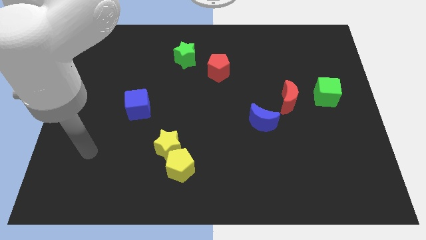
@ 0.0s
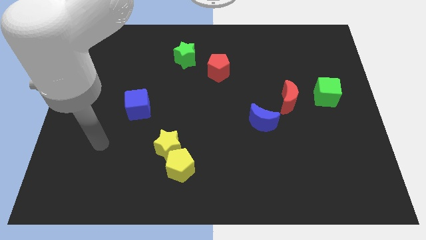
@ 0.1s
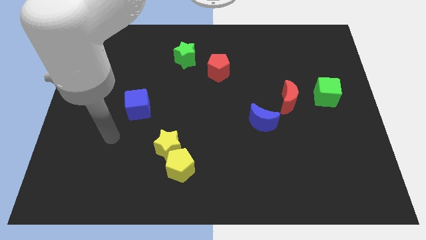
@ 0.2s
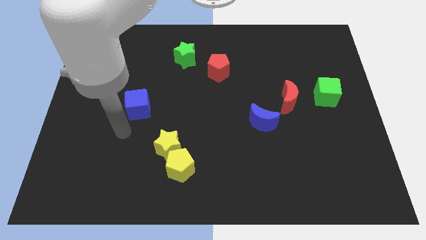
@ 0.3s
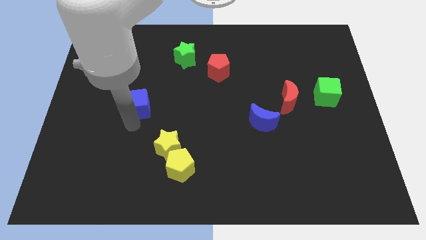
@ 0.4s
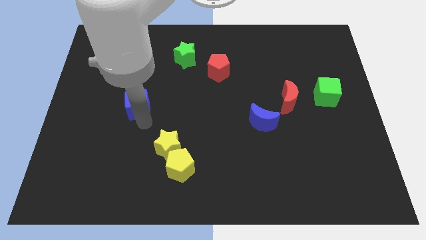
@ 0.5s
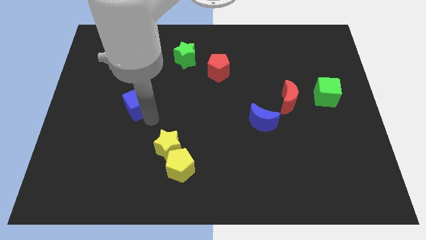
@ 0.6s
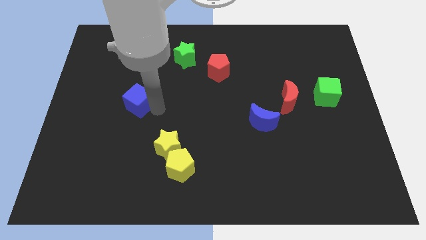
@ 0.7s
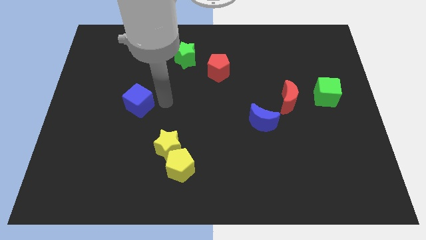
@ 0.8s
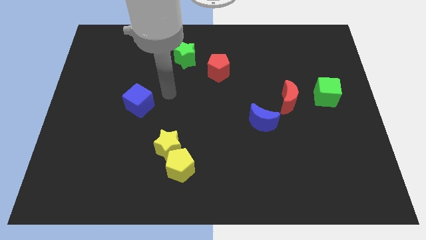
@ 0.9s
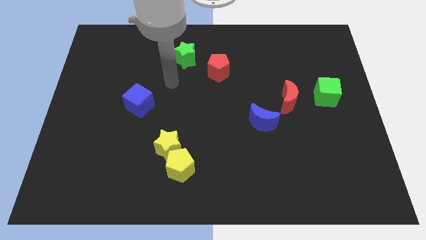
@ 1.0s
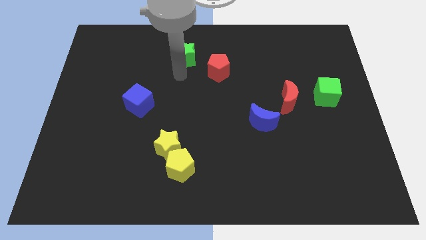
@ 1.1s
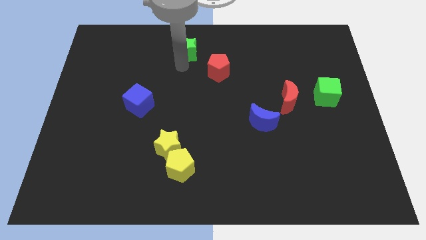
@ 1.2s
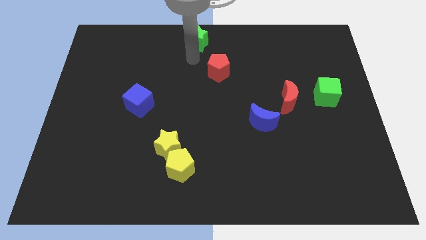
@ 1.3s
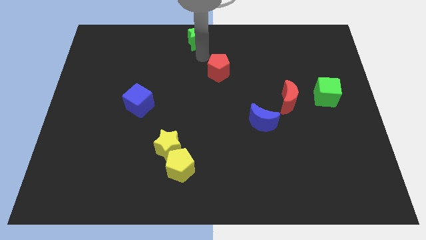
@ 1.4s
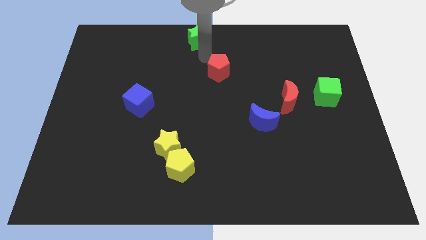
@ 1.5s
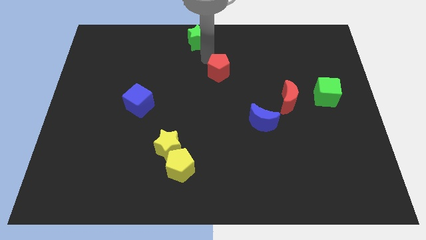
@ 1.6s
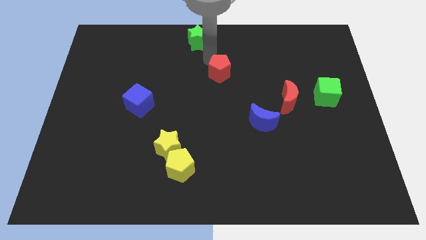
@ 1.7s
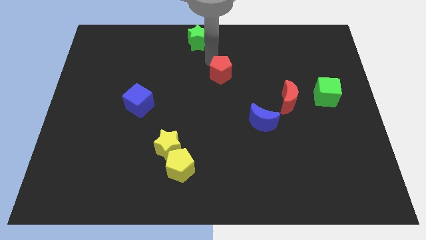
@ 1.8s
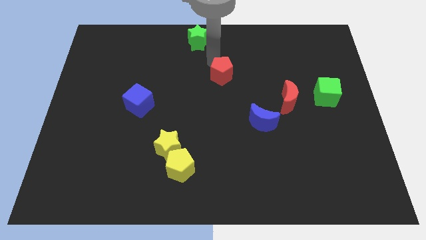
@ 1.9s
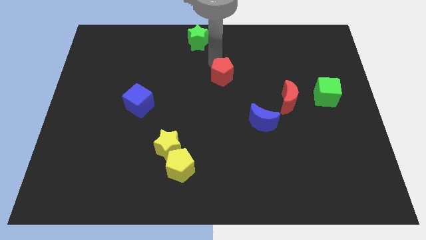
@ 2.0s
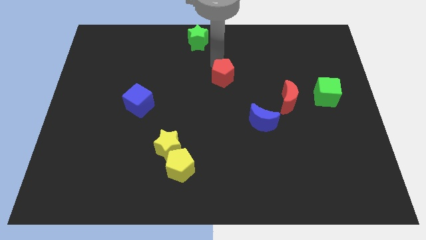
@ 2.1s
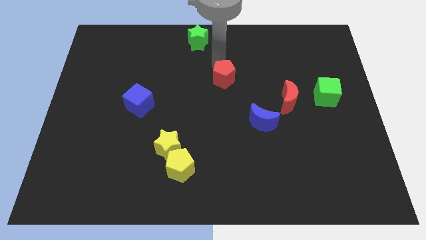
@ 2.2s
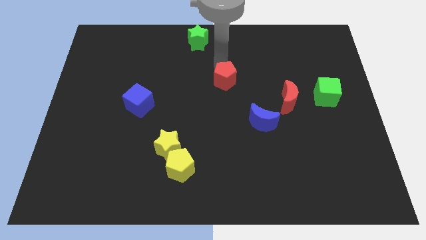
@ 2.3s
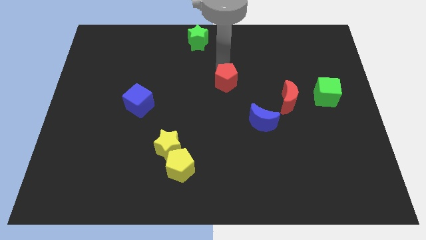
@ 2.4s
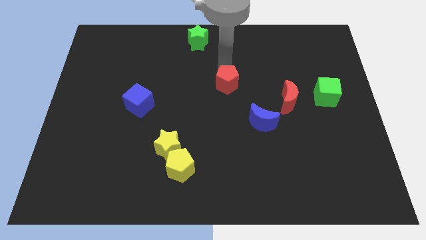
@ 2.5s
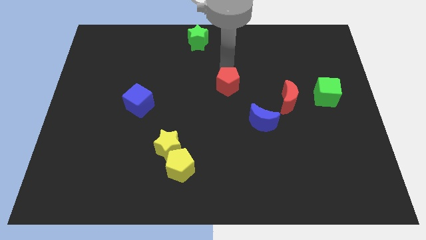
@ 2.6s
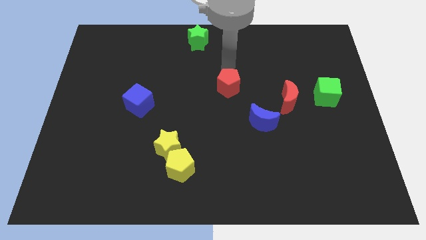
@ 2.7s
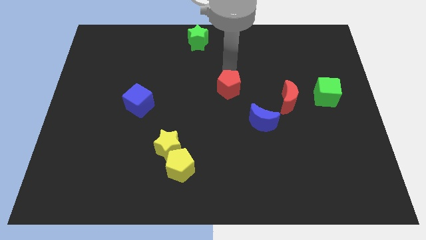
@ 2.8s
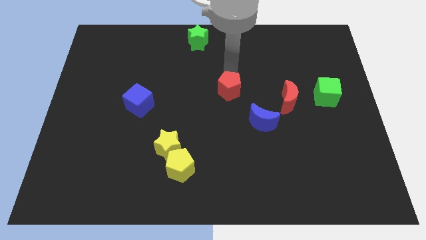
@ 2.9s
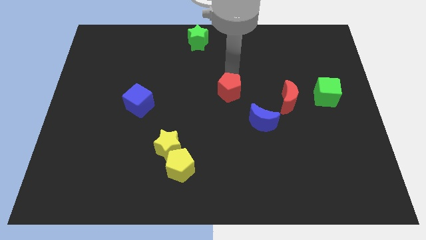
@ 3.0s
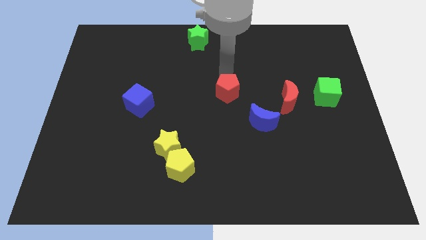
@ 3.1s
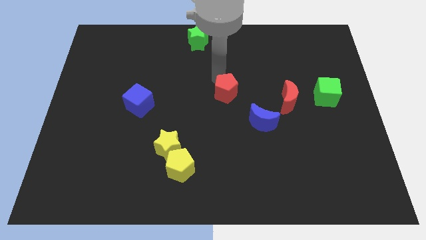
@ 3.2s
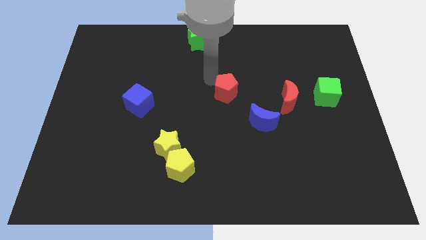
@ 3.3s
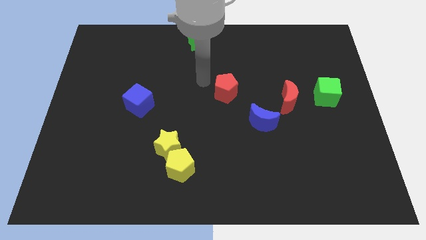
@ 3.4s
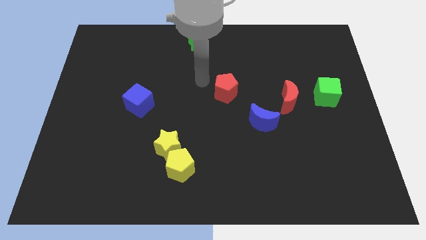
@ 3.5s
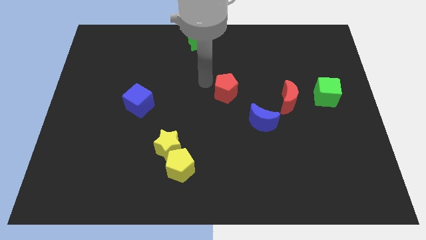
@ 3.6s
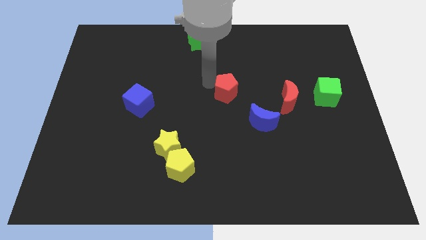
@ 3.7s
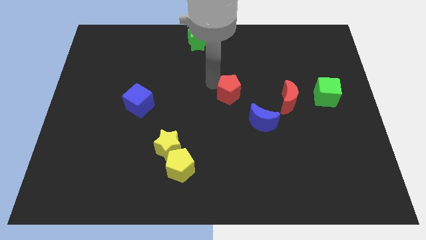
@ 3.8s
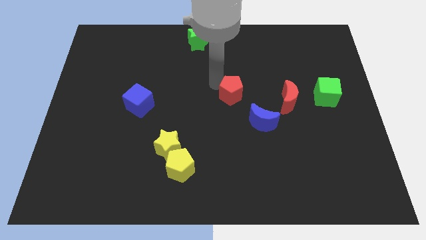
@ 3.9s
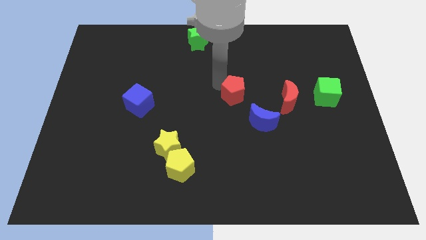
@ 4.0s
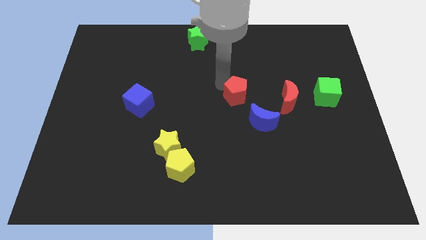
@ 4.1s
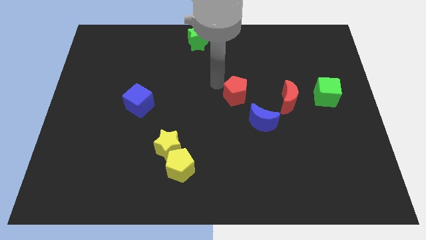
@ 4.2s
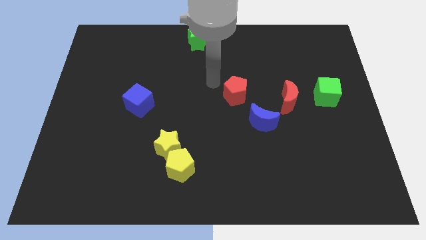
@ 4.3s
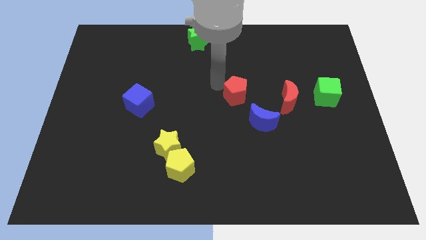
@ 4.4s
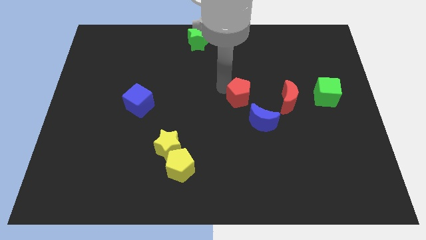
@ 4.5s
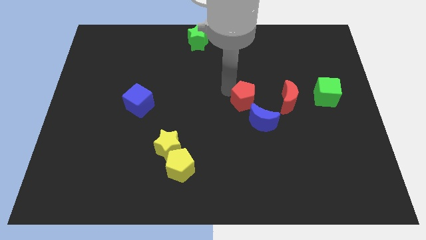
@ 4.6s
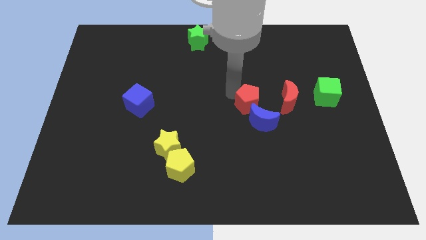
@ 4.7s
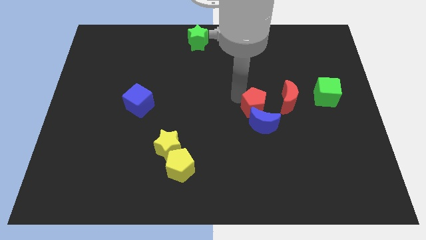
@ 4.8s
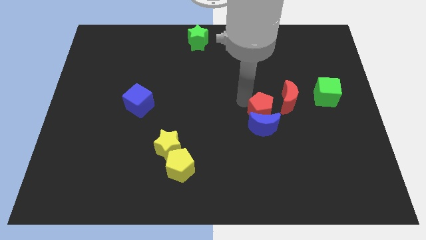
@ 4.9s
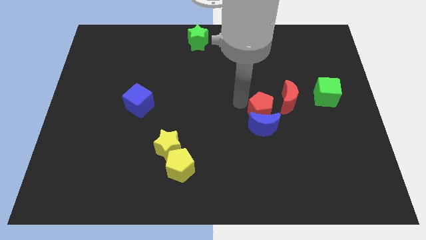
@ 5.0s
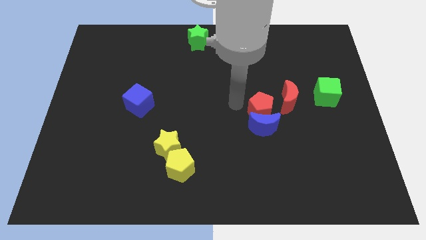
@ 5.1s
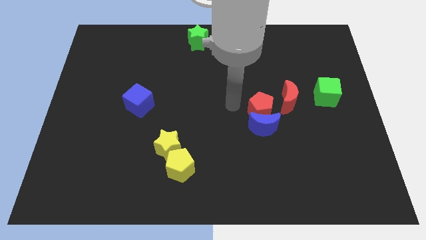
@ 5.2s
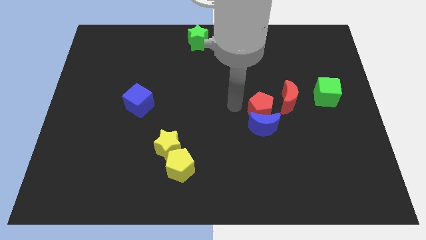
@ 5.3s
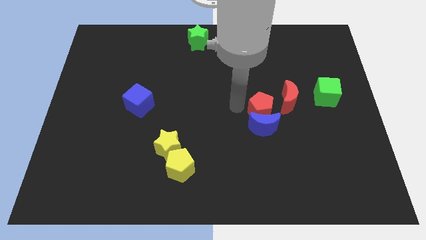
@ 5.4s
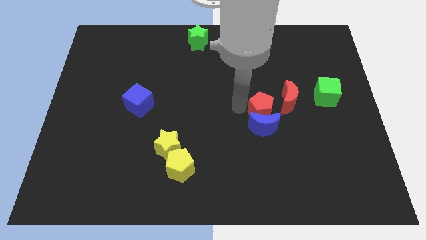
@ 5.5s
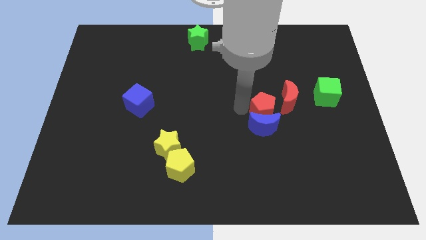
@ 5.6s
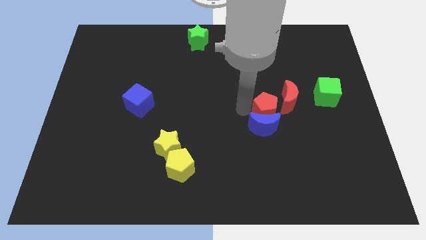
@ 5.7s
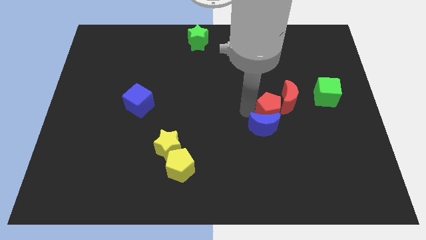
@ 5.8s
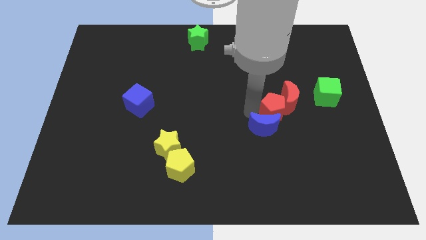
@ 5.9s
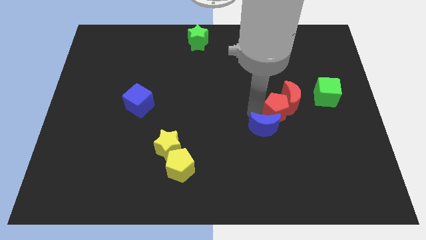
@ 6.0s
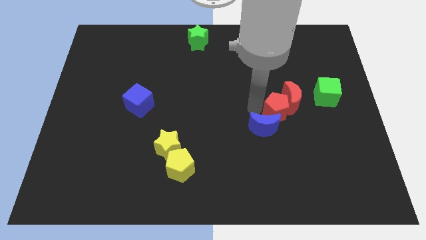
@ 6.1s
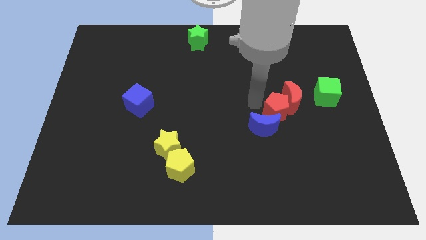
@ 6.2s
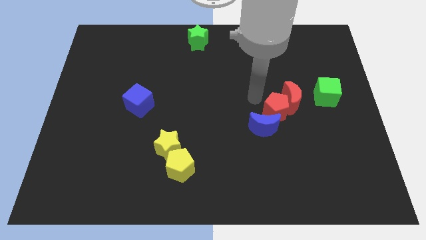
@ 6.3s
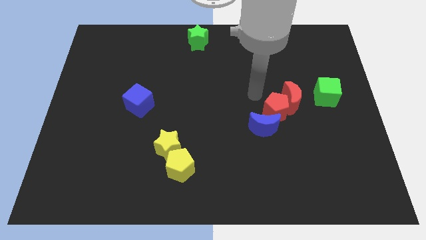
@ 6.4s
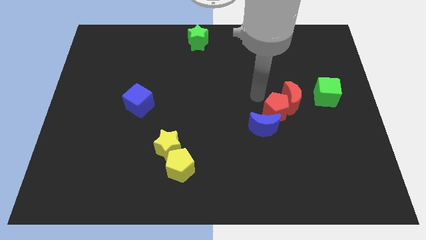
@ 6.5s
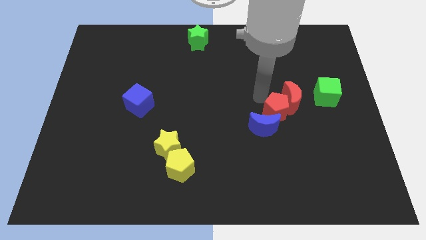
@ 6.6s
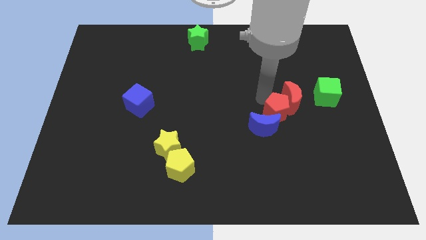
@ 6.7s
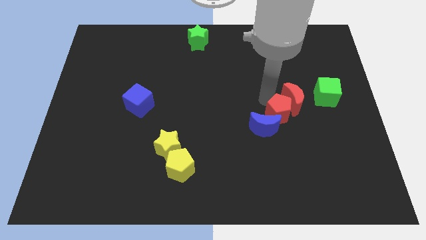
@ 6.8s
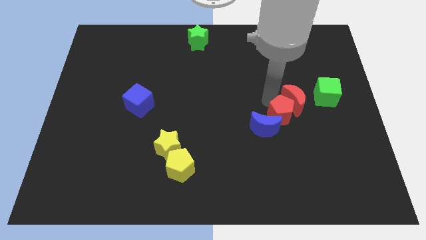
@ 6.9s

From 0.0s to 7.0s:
slide the red pentagon downwards and then right

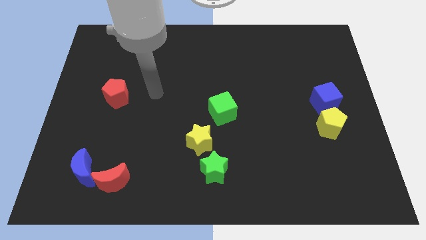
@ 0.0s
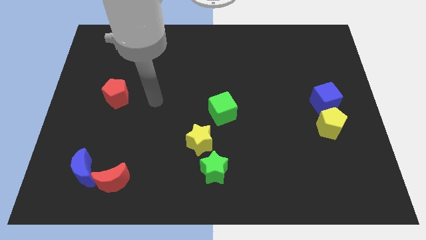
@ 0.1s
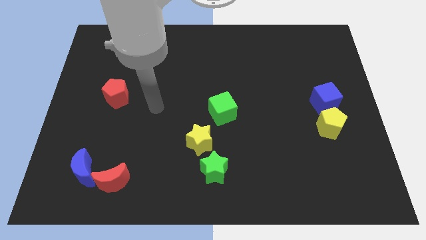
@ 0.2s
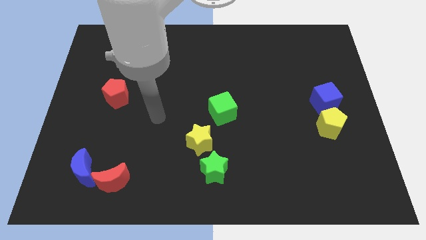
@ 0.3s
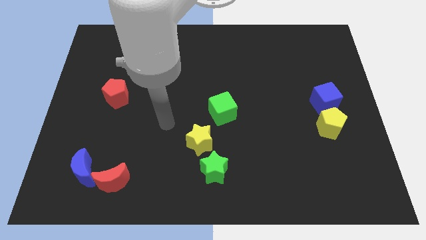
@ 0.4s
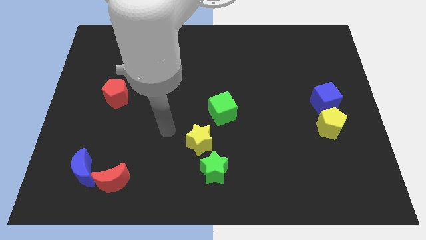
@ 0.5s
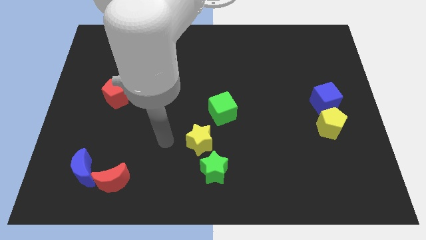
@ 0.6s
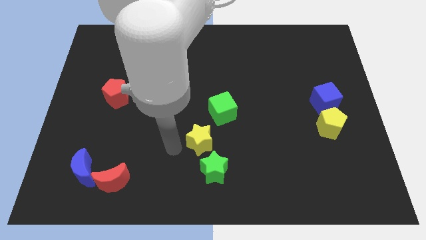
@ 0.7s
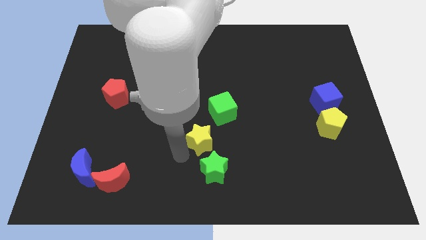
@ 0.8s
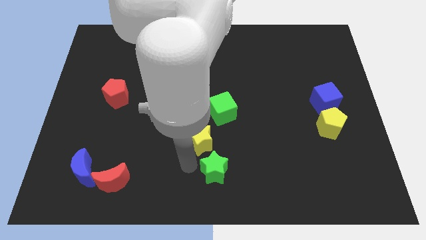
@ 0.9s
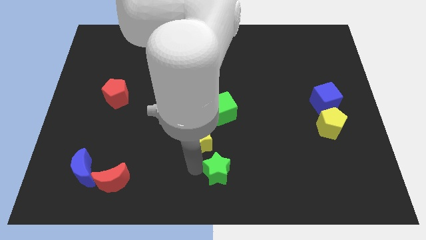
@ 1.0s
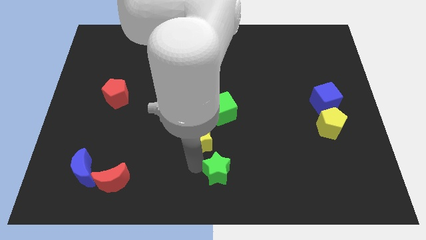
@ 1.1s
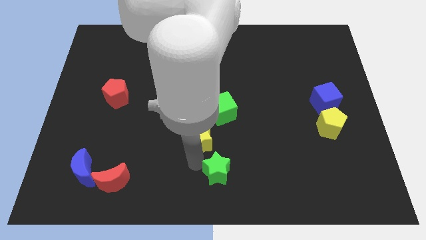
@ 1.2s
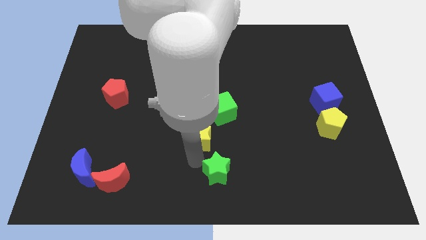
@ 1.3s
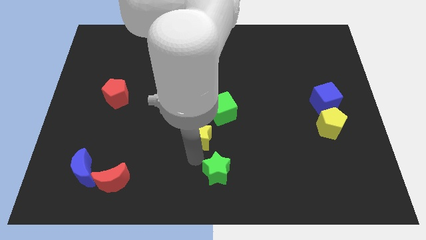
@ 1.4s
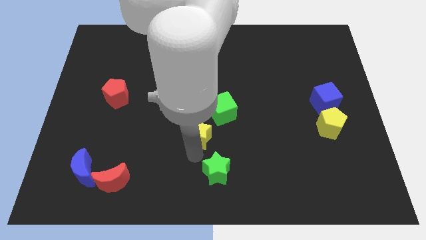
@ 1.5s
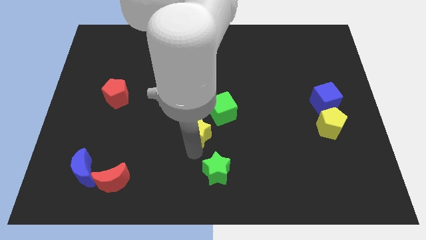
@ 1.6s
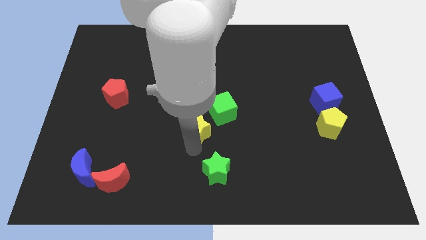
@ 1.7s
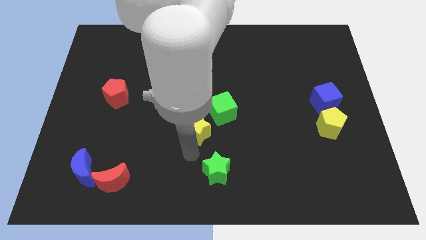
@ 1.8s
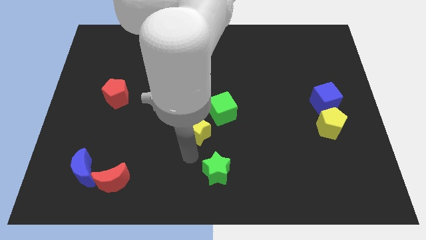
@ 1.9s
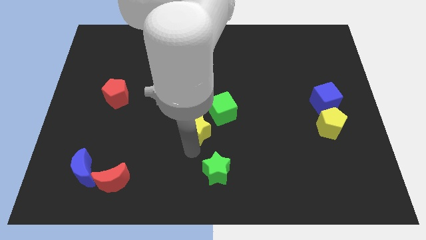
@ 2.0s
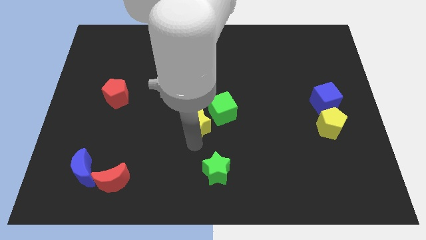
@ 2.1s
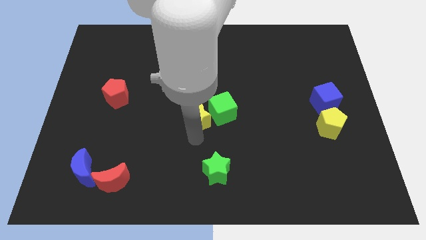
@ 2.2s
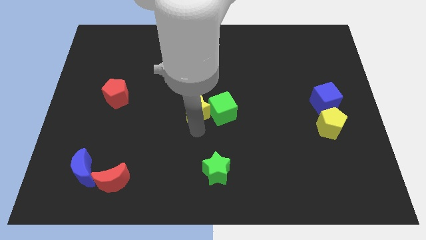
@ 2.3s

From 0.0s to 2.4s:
move the yellow star upwards slightly
